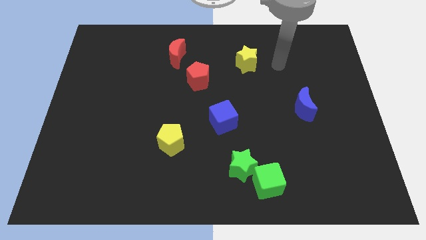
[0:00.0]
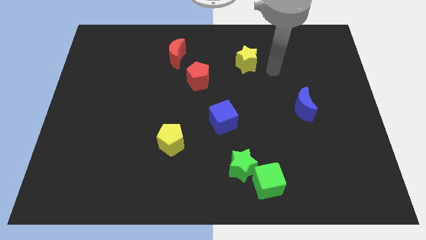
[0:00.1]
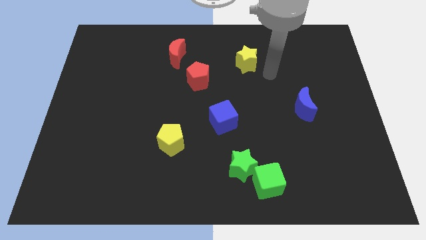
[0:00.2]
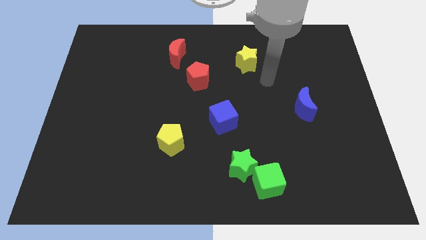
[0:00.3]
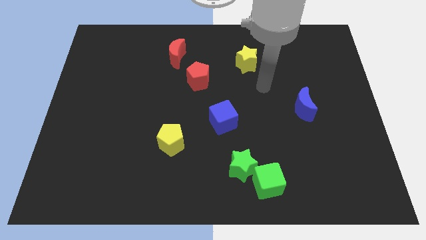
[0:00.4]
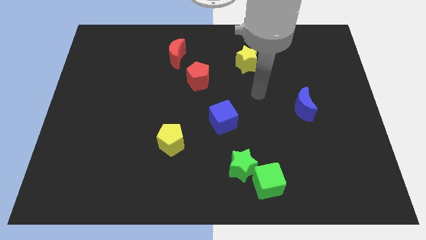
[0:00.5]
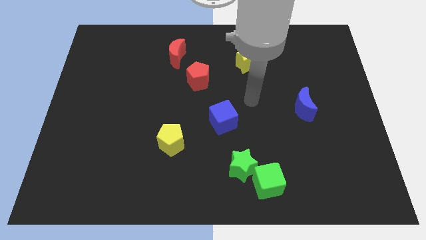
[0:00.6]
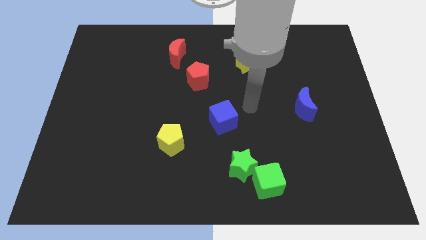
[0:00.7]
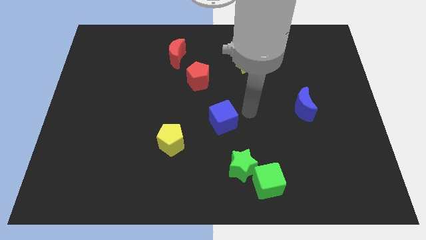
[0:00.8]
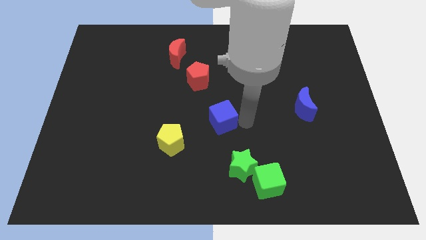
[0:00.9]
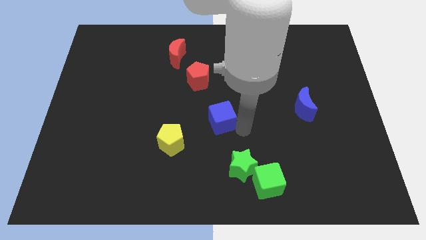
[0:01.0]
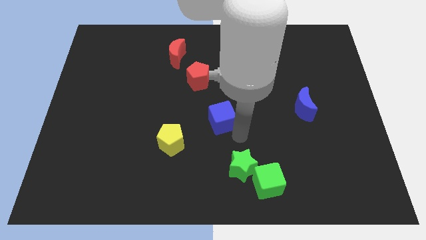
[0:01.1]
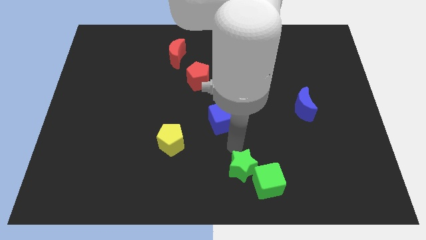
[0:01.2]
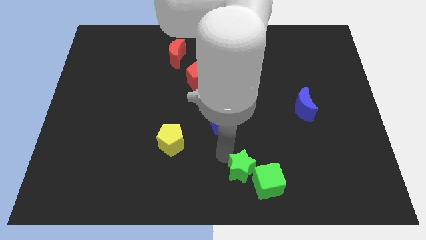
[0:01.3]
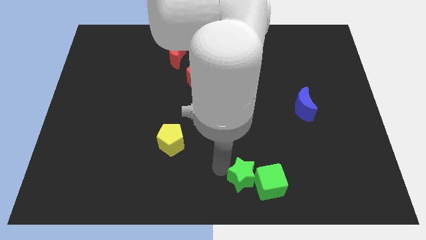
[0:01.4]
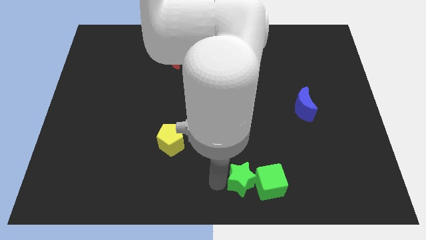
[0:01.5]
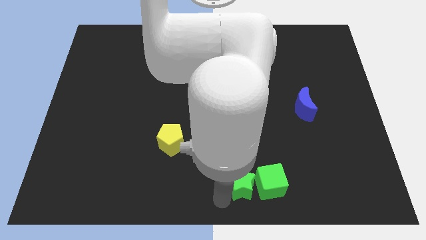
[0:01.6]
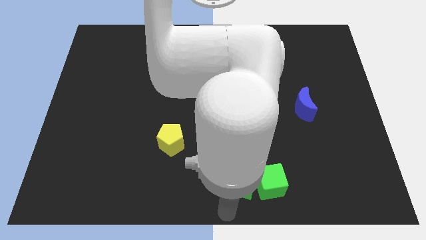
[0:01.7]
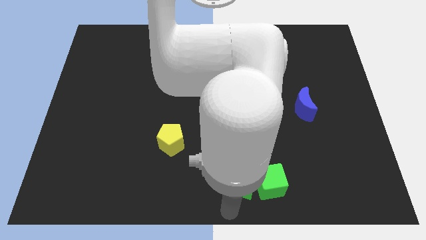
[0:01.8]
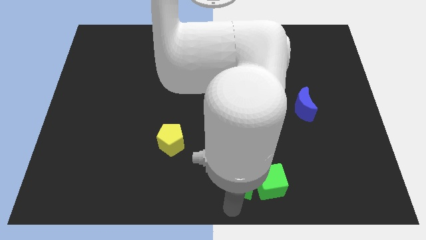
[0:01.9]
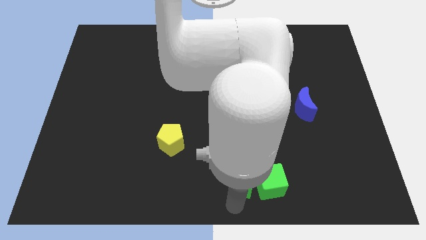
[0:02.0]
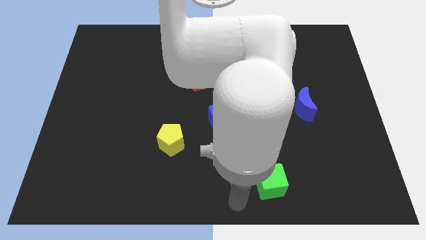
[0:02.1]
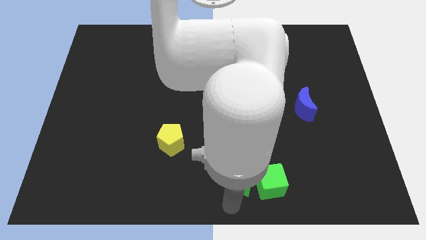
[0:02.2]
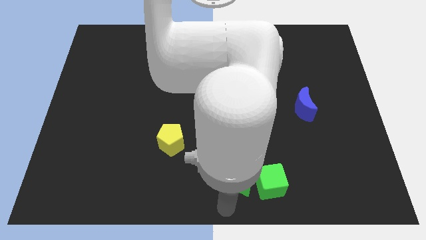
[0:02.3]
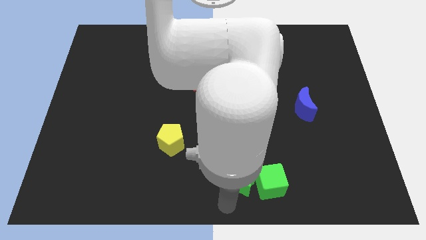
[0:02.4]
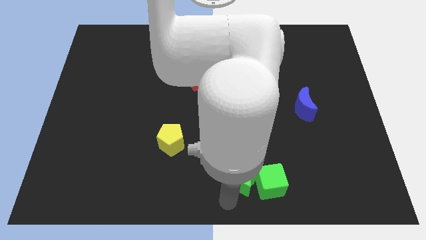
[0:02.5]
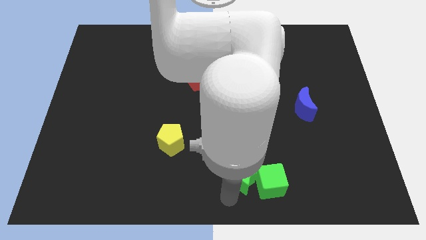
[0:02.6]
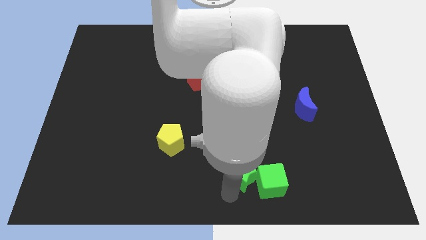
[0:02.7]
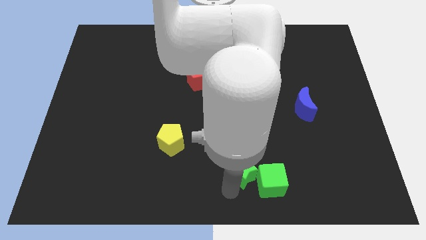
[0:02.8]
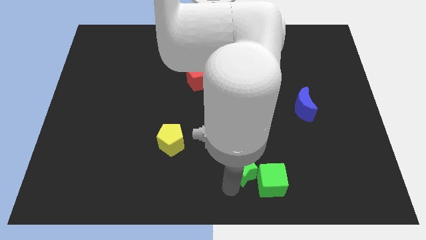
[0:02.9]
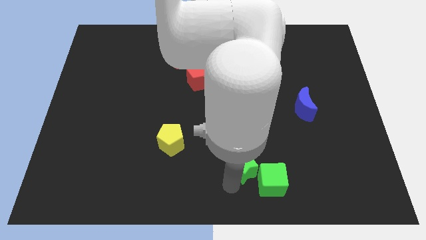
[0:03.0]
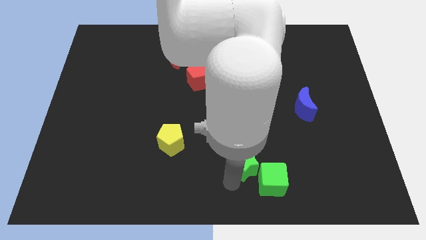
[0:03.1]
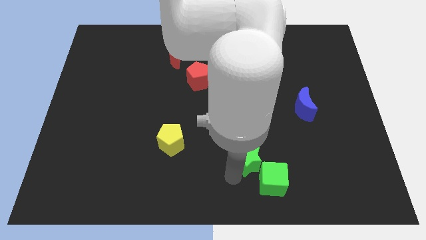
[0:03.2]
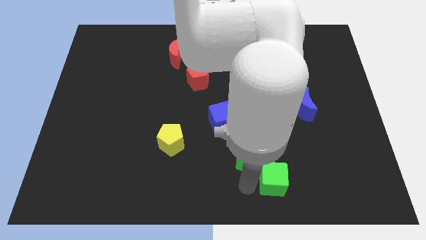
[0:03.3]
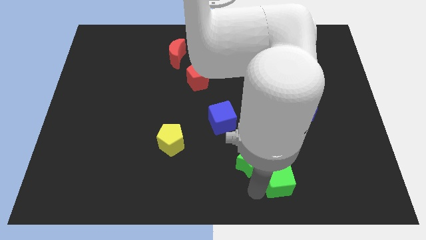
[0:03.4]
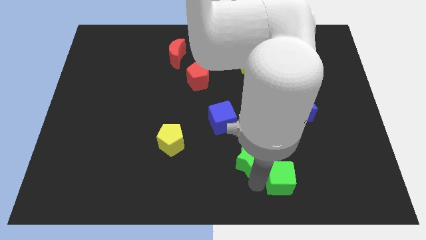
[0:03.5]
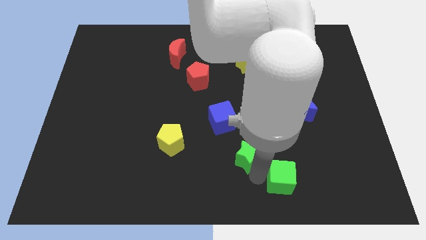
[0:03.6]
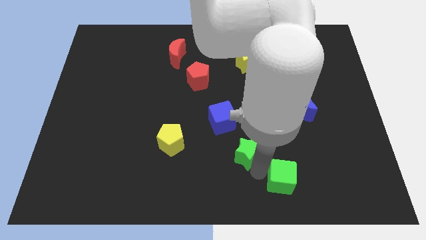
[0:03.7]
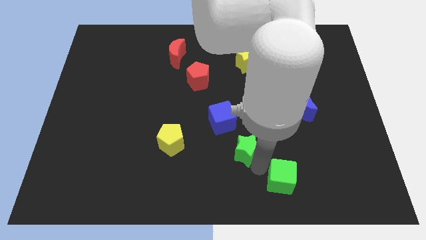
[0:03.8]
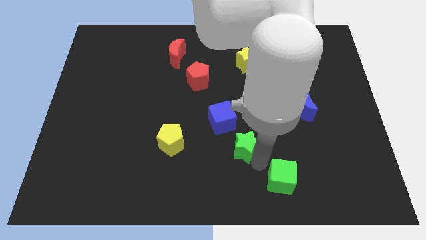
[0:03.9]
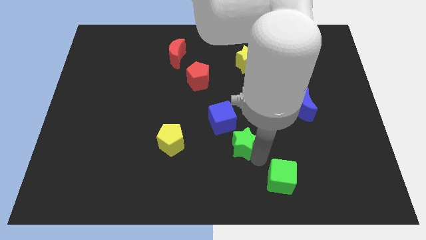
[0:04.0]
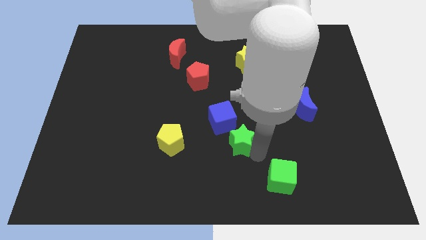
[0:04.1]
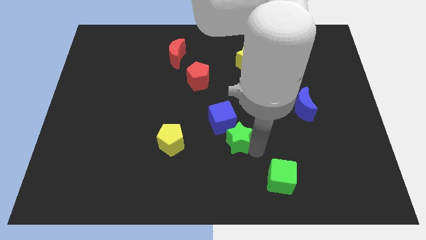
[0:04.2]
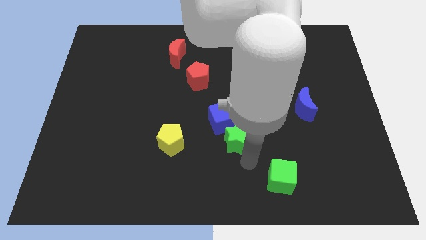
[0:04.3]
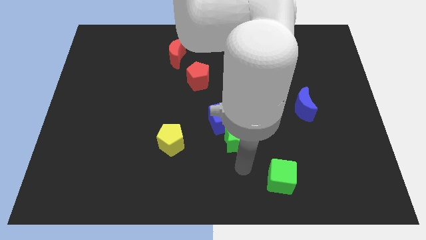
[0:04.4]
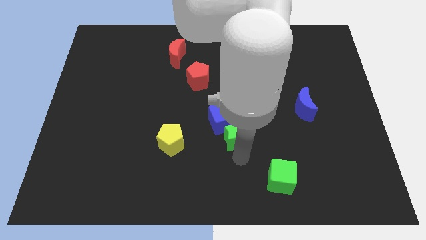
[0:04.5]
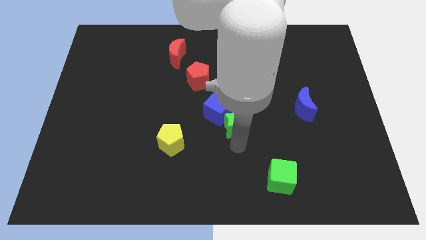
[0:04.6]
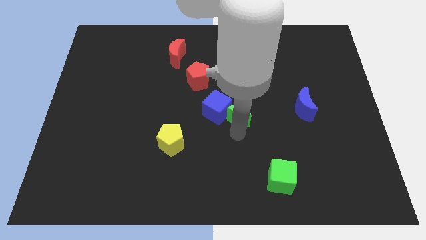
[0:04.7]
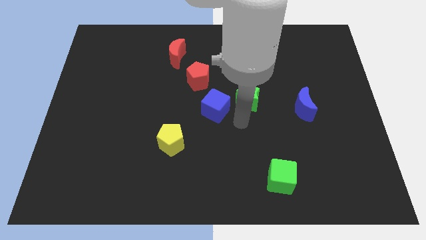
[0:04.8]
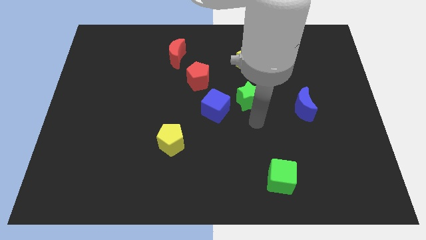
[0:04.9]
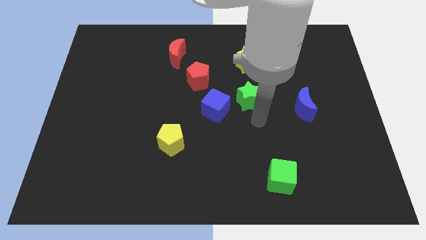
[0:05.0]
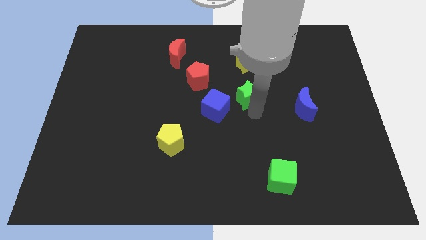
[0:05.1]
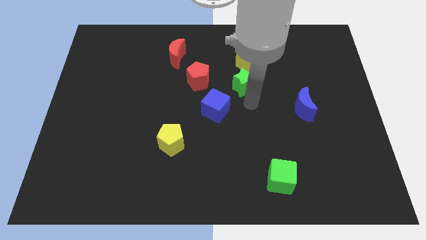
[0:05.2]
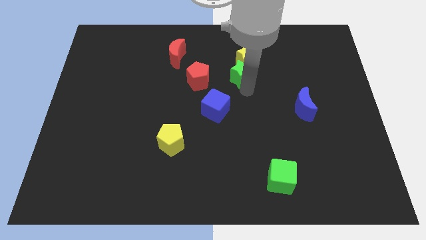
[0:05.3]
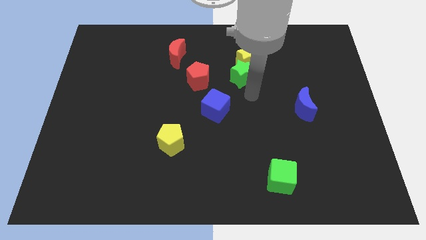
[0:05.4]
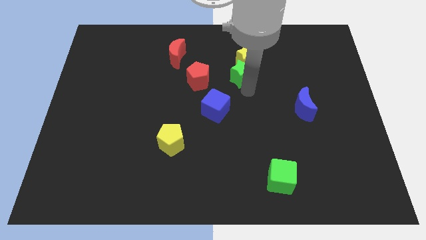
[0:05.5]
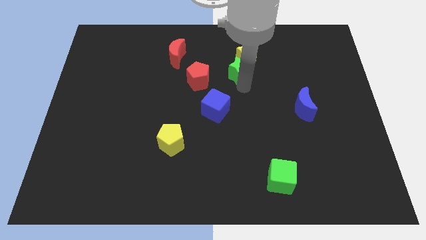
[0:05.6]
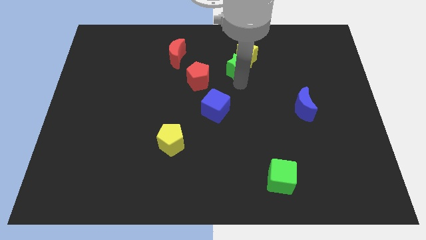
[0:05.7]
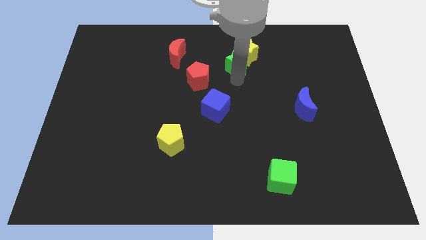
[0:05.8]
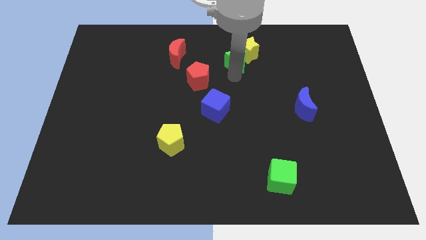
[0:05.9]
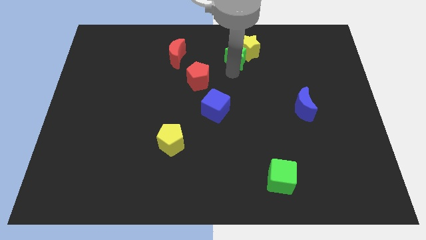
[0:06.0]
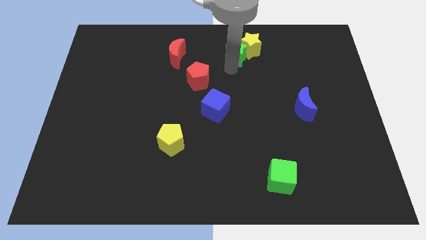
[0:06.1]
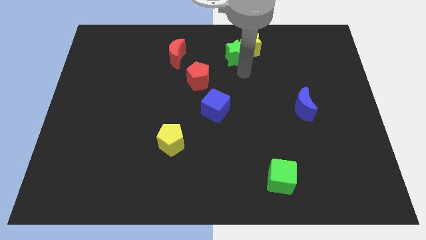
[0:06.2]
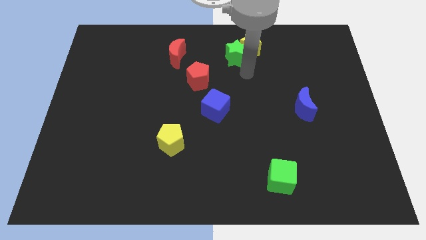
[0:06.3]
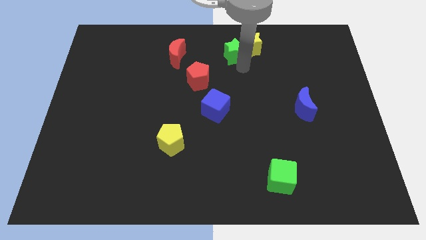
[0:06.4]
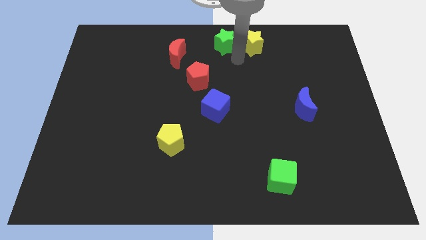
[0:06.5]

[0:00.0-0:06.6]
push the green star to the top
